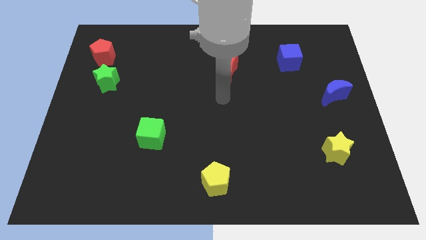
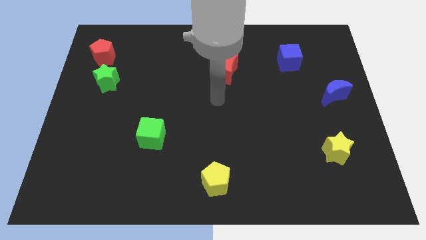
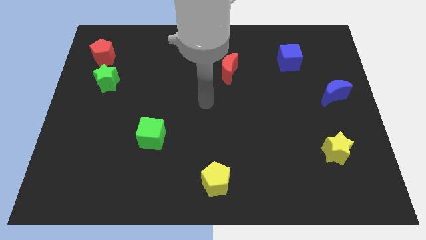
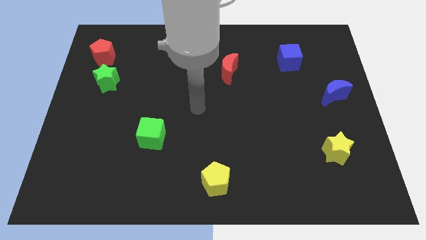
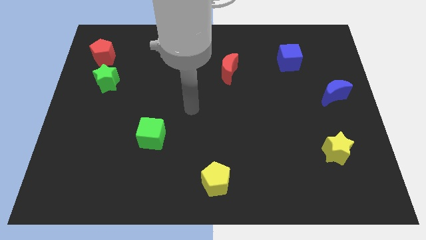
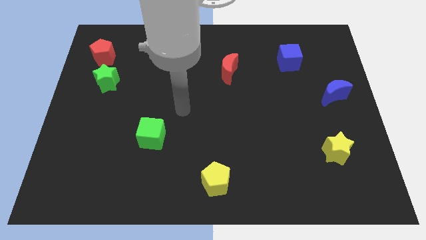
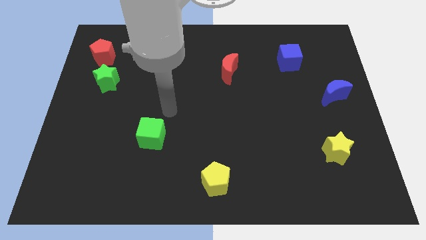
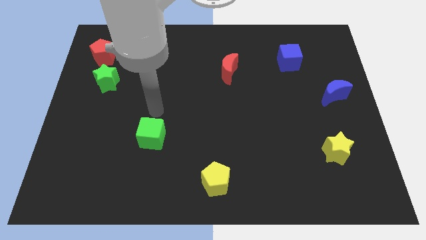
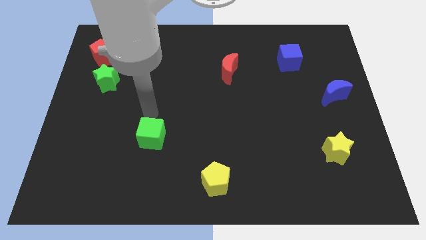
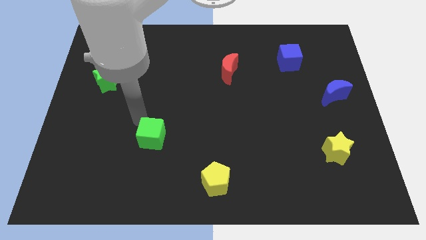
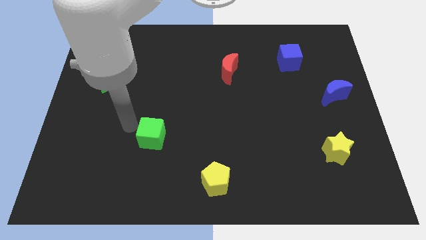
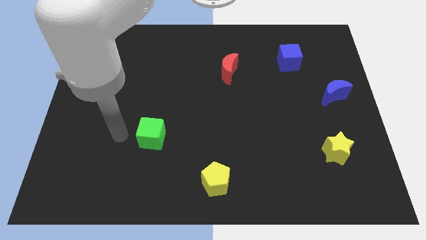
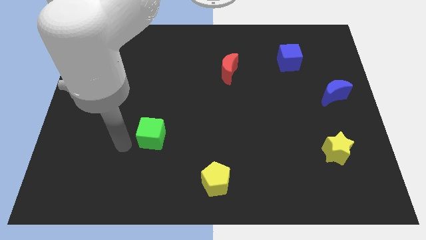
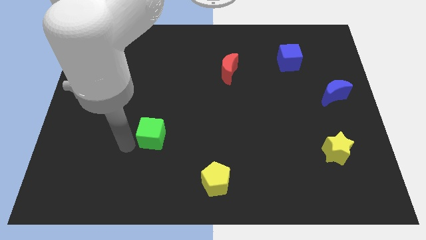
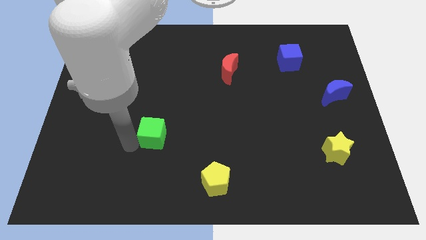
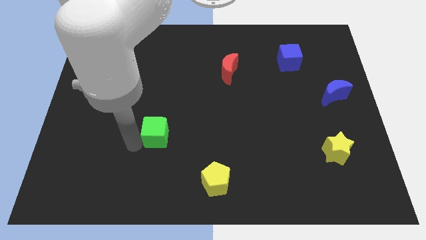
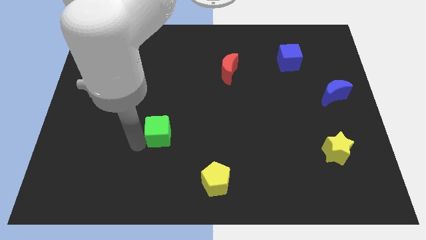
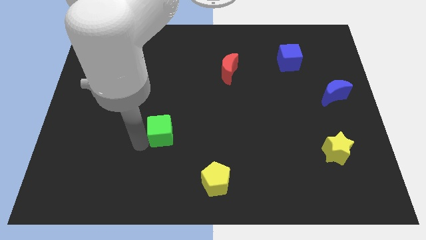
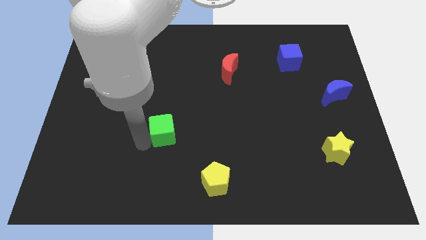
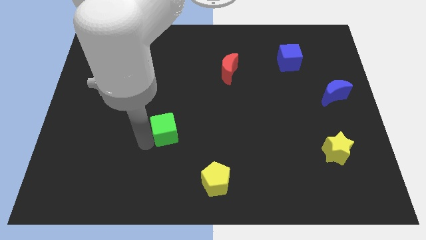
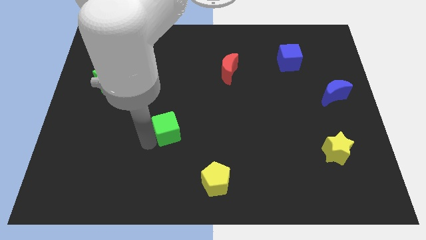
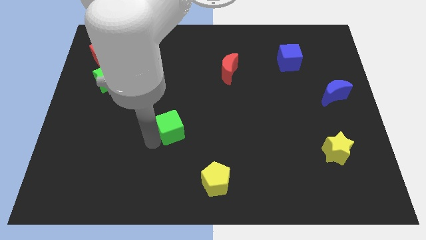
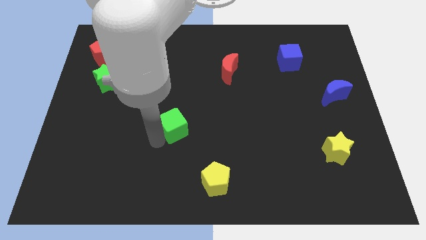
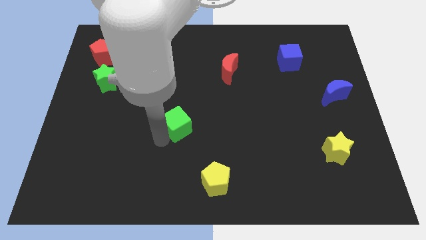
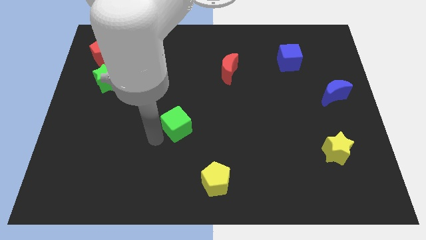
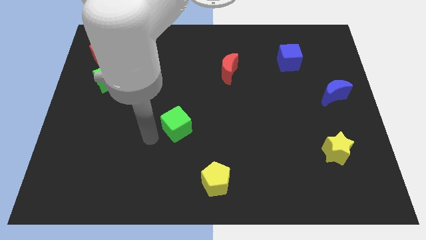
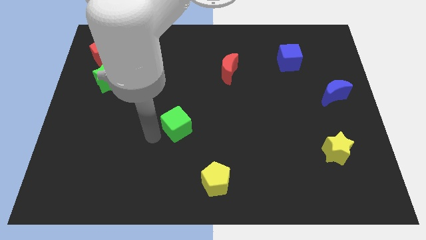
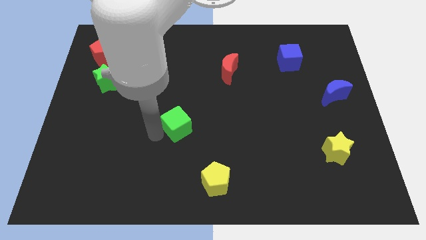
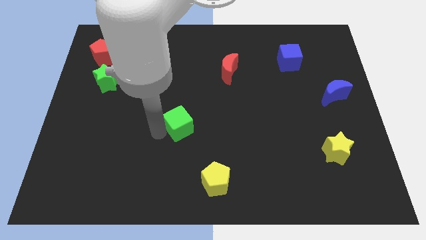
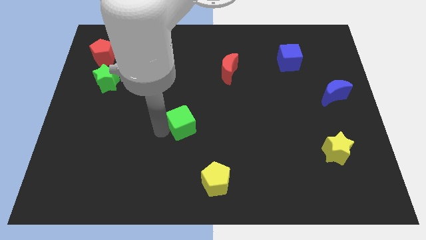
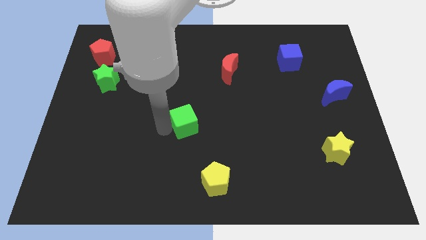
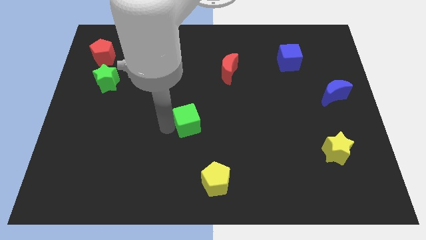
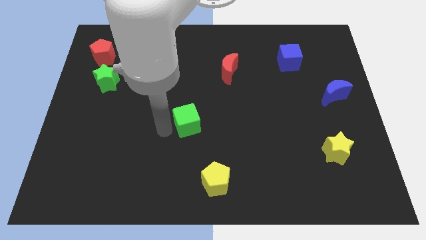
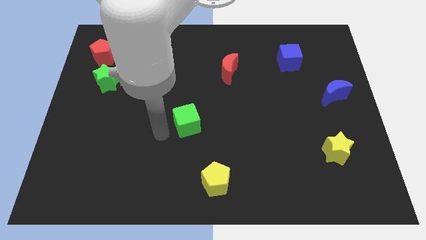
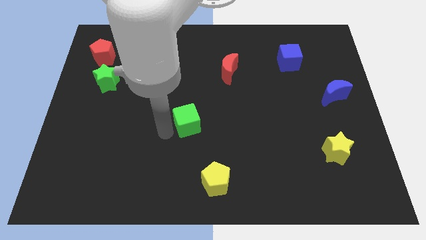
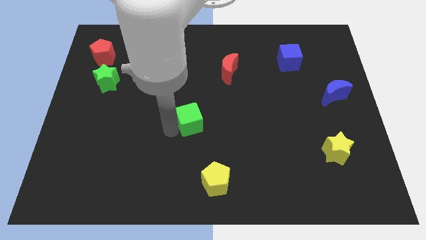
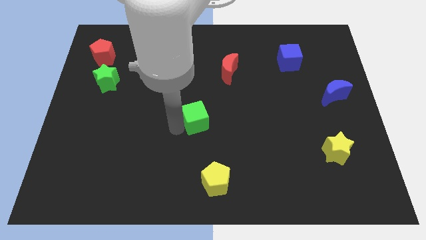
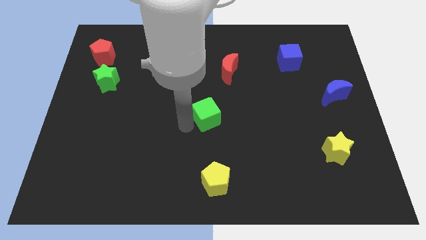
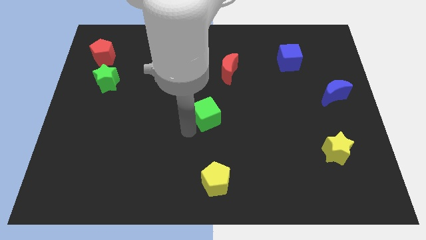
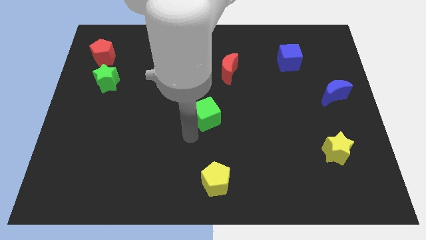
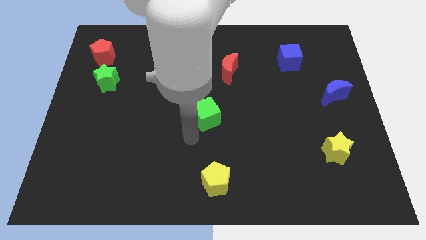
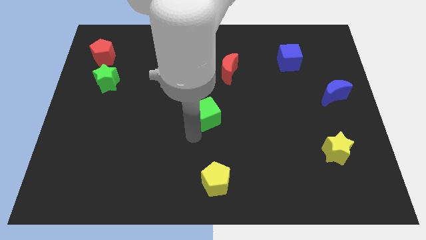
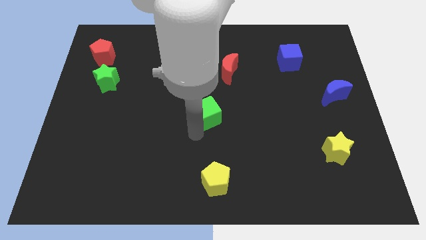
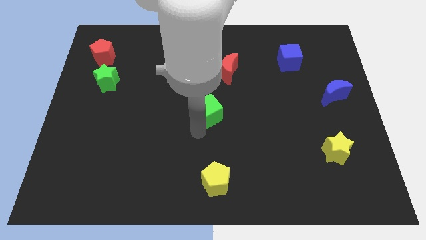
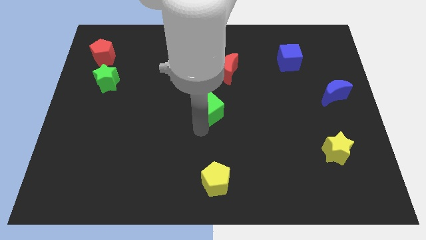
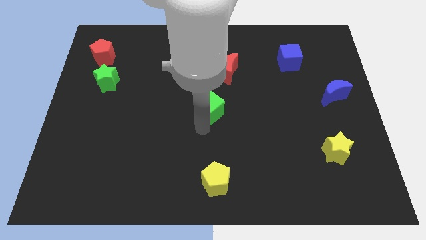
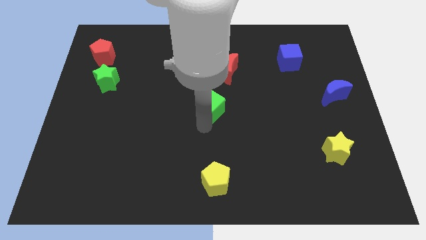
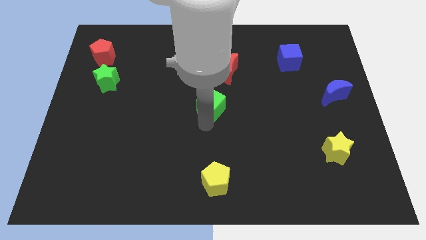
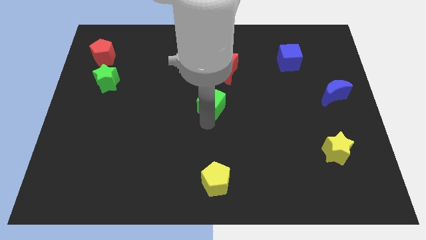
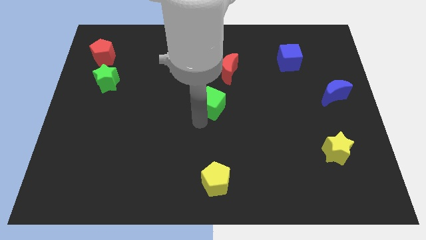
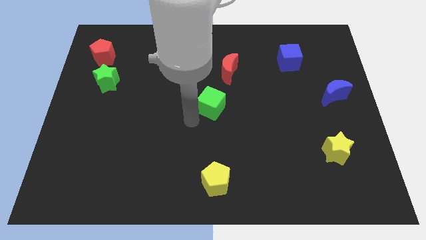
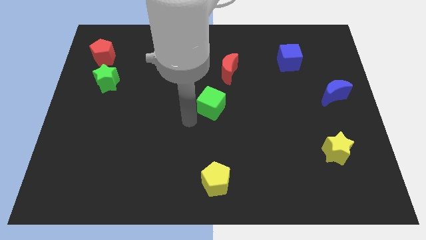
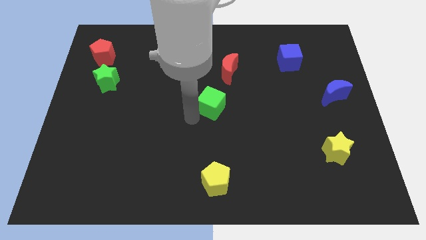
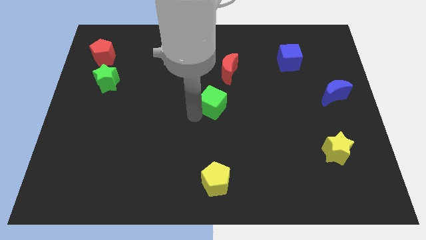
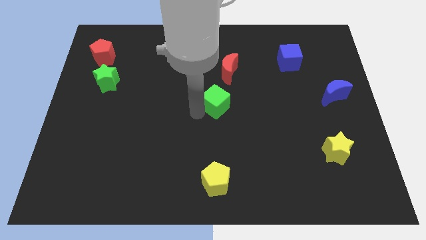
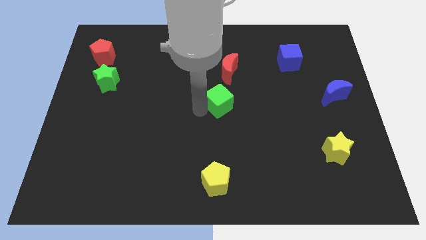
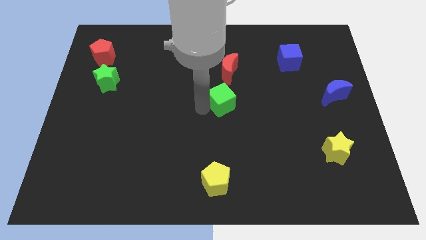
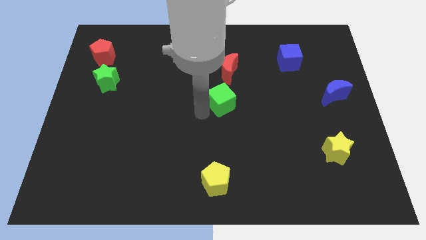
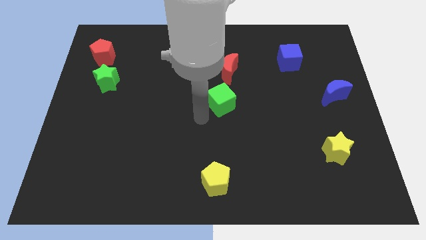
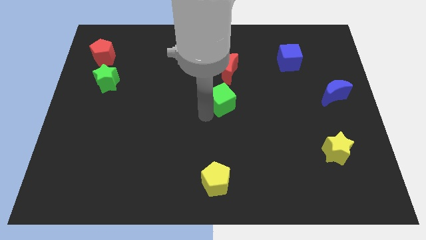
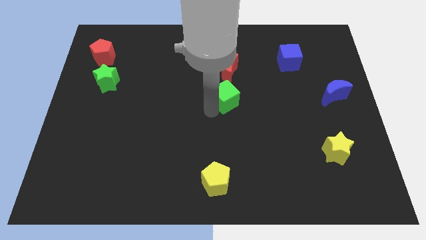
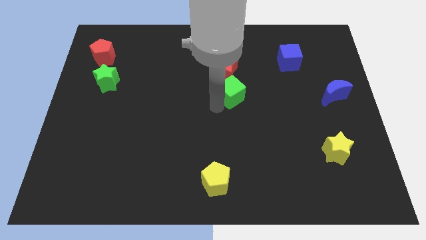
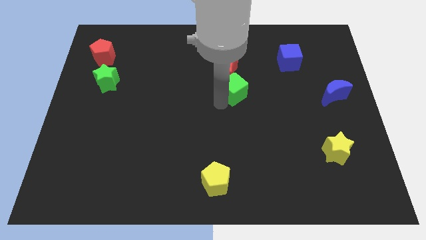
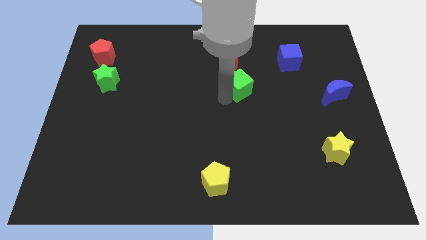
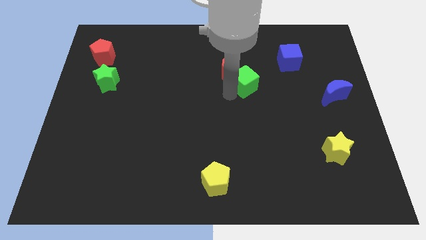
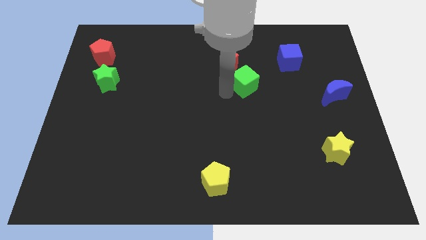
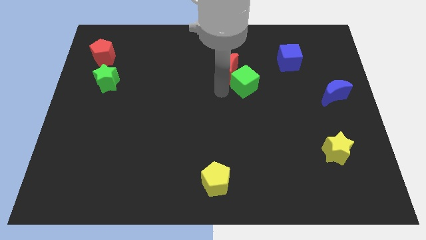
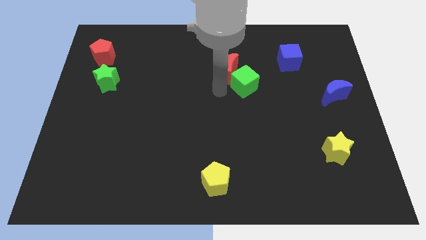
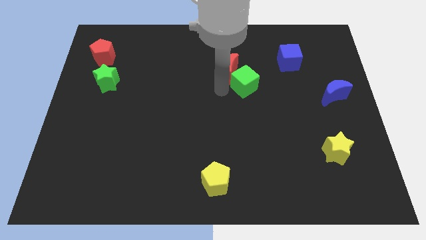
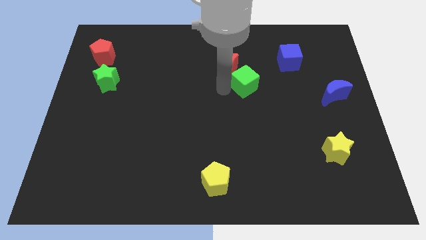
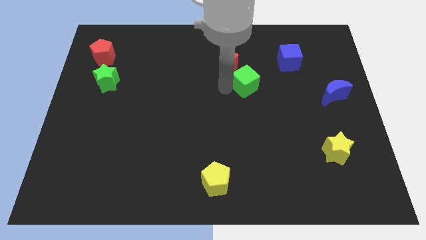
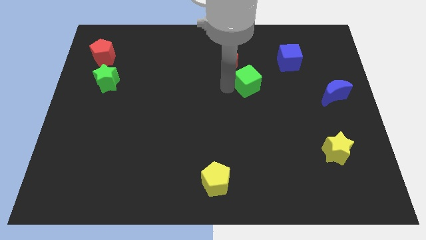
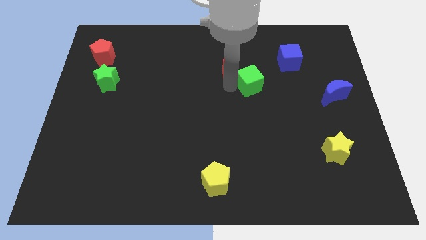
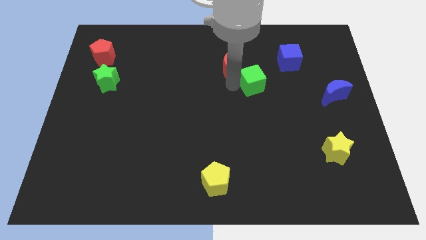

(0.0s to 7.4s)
put the green cube to the bottom left of the blue cube
